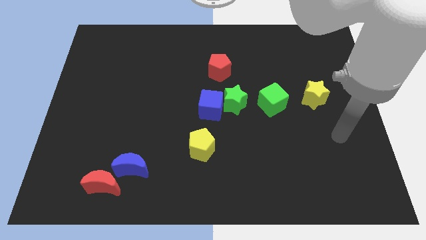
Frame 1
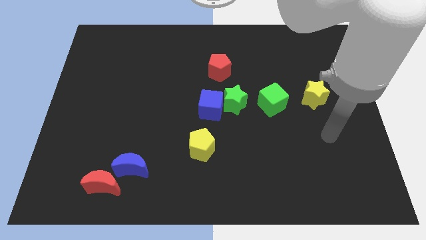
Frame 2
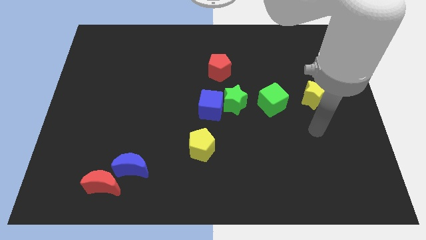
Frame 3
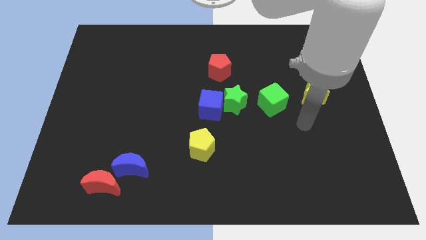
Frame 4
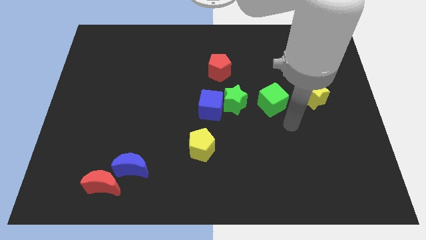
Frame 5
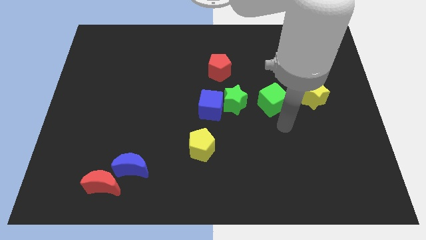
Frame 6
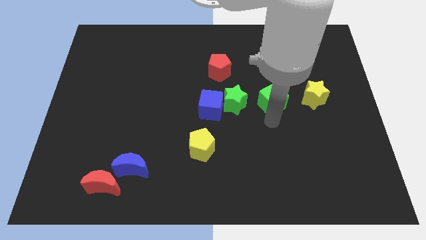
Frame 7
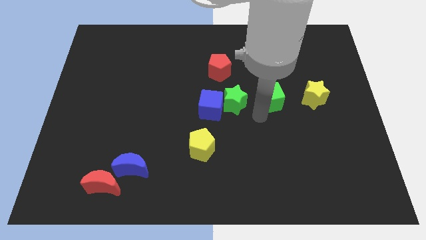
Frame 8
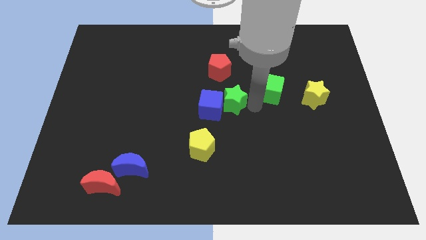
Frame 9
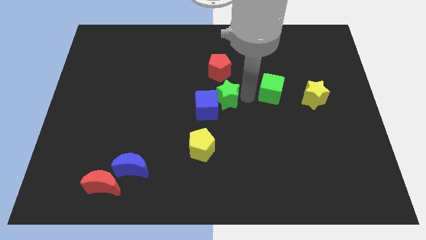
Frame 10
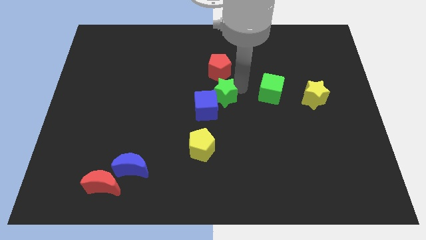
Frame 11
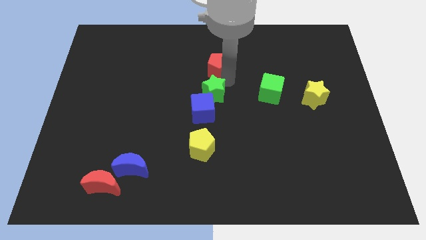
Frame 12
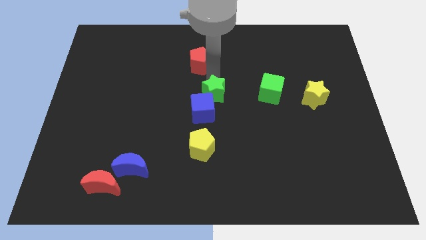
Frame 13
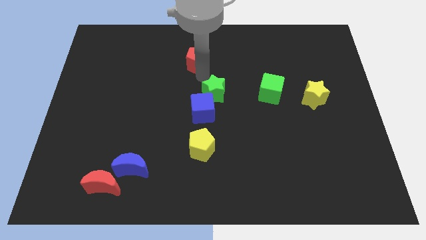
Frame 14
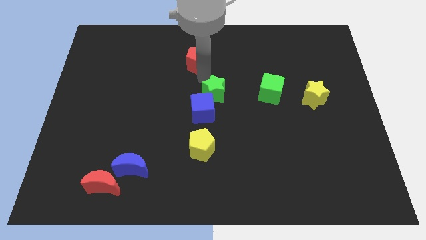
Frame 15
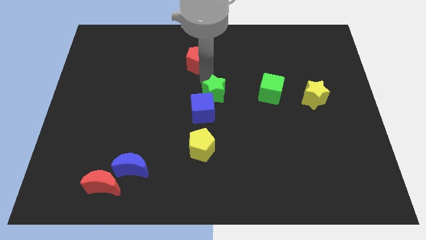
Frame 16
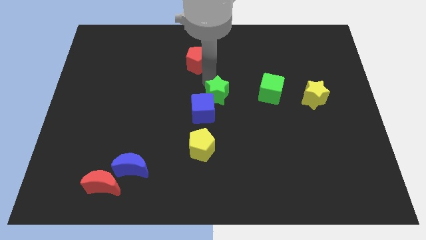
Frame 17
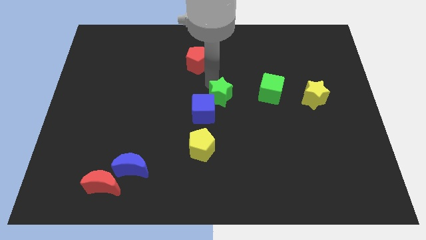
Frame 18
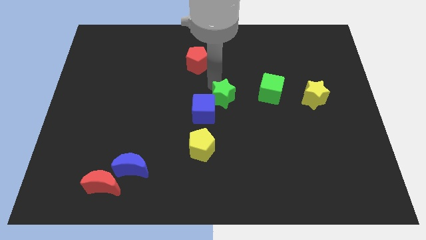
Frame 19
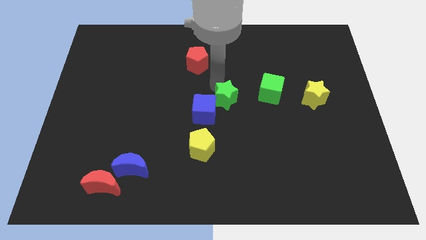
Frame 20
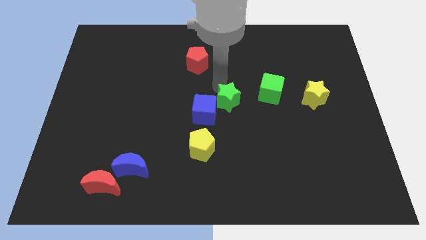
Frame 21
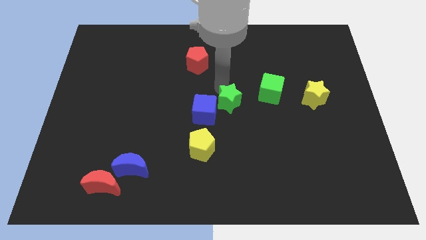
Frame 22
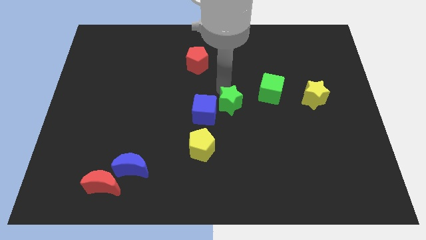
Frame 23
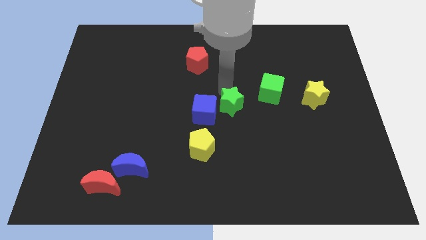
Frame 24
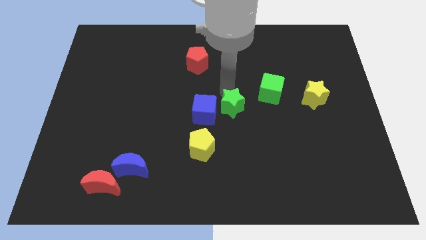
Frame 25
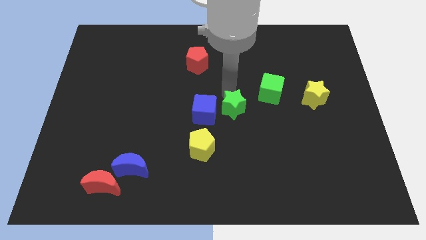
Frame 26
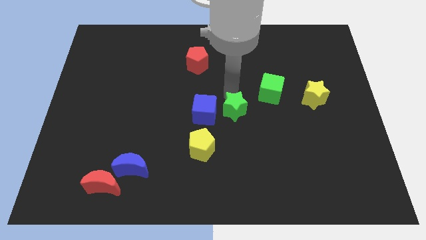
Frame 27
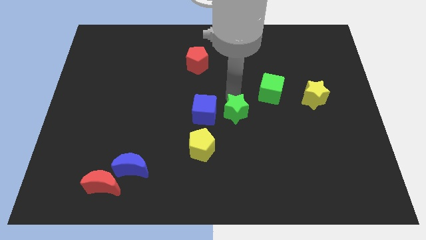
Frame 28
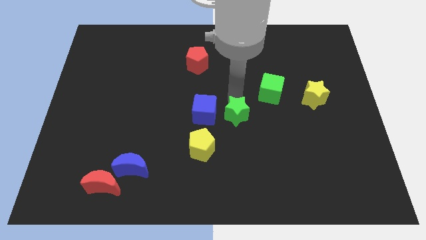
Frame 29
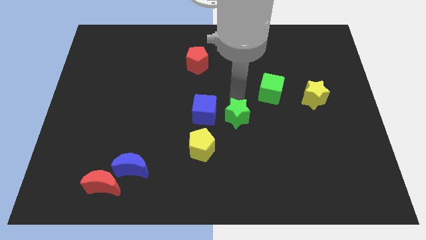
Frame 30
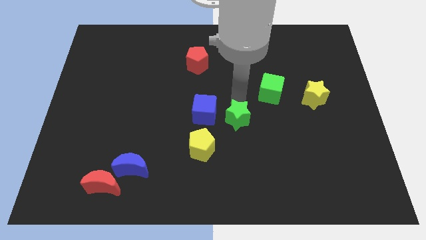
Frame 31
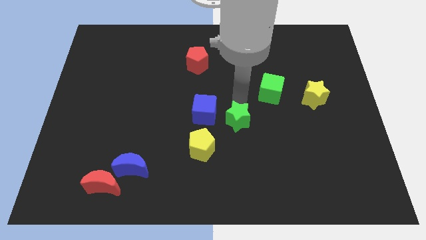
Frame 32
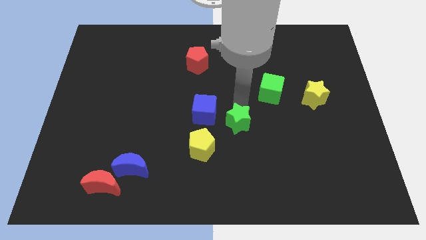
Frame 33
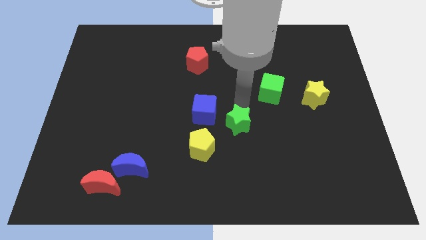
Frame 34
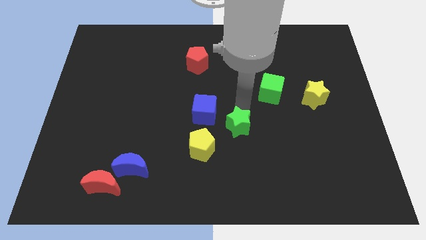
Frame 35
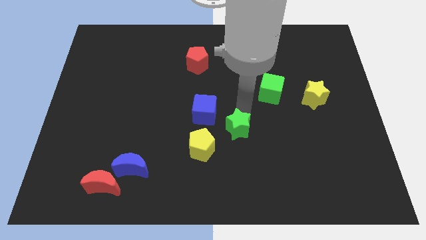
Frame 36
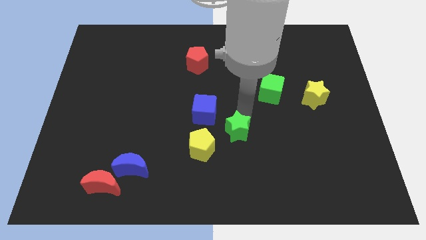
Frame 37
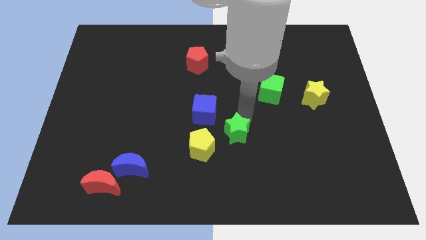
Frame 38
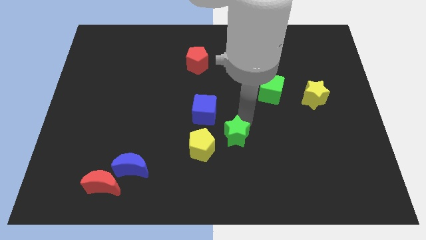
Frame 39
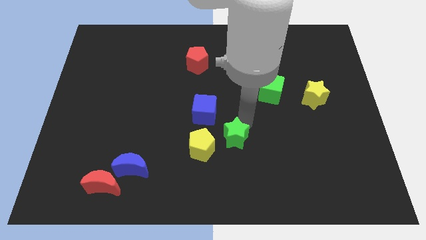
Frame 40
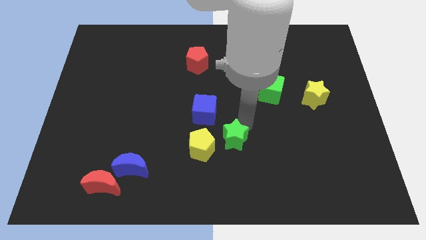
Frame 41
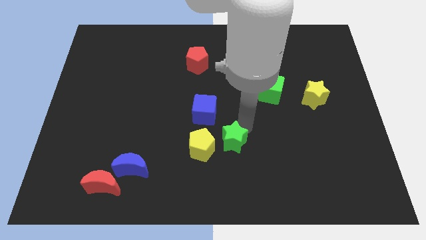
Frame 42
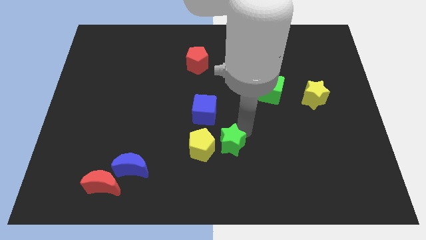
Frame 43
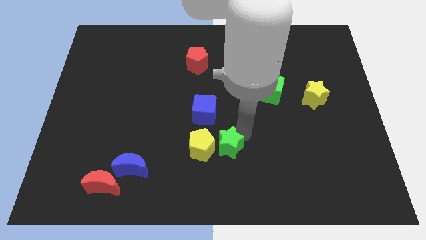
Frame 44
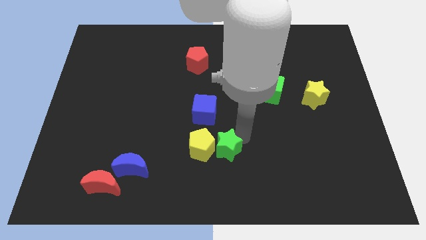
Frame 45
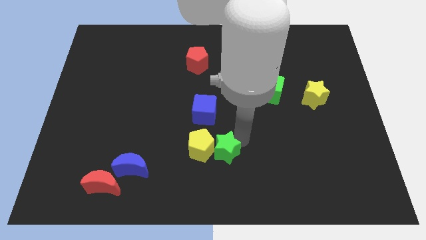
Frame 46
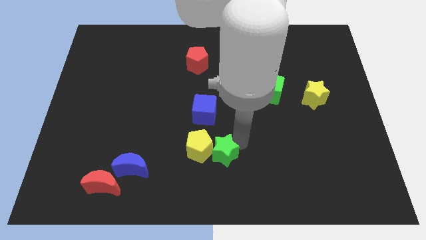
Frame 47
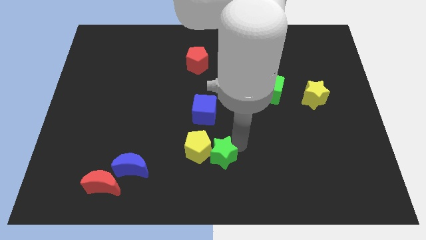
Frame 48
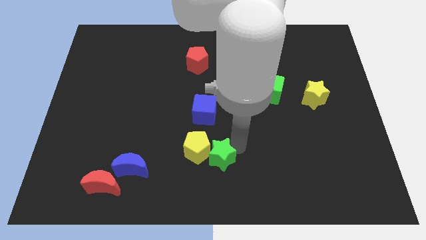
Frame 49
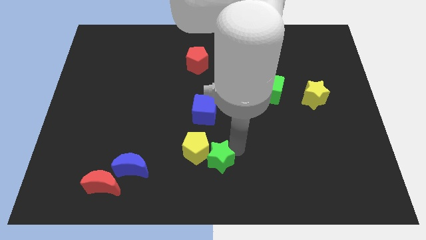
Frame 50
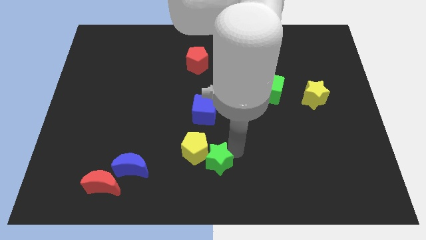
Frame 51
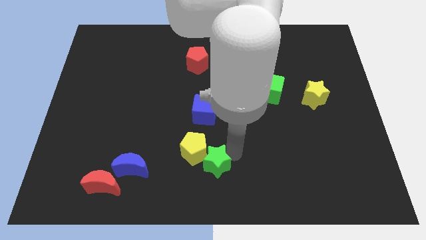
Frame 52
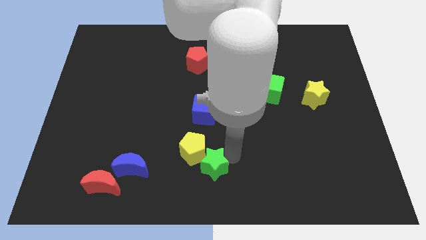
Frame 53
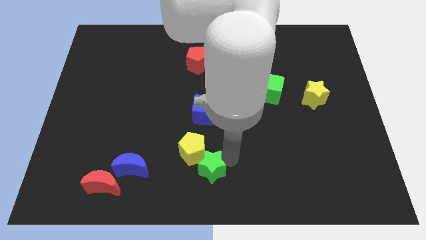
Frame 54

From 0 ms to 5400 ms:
put the green star to the right side of the blue moon

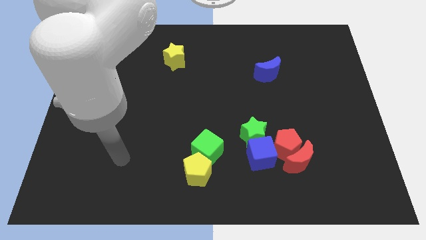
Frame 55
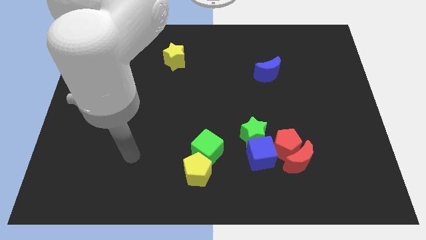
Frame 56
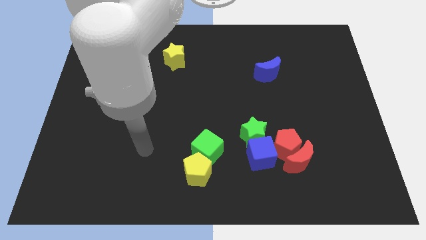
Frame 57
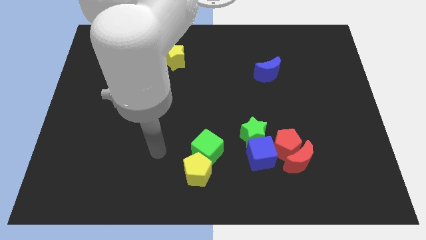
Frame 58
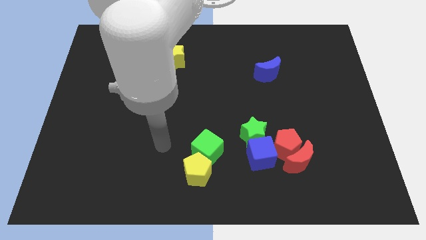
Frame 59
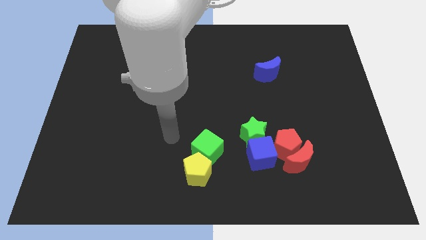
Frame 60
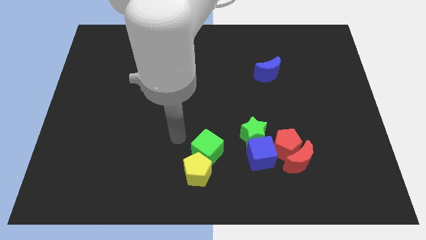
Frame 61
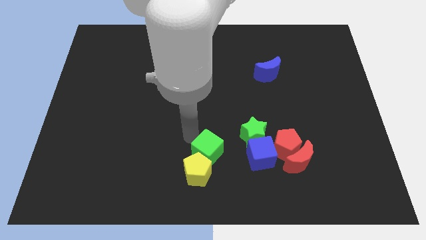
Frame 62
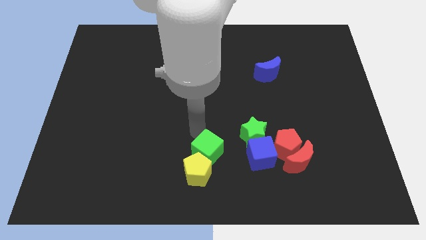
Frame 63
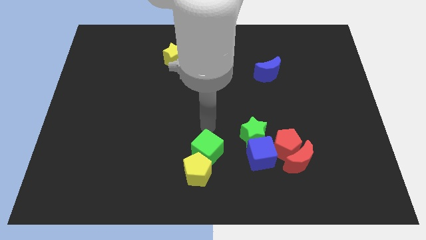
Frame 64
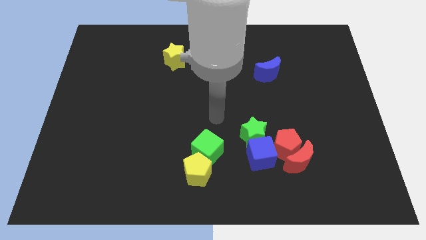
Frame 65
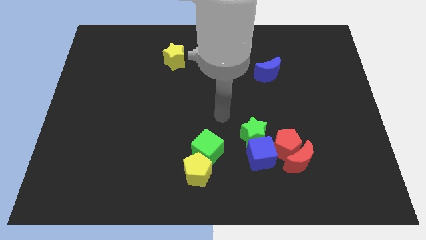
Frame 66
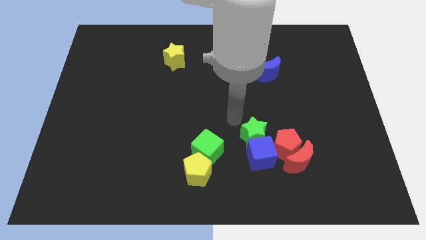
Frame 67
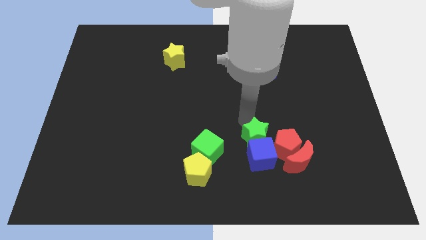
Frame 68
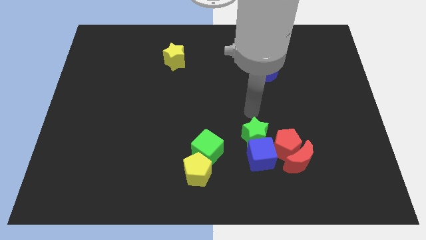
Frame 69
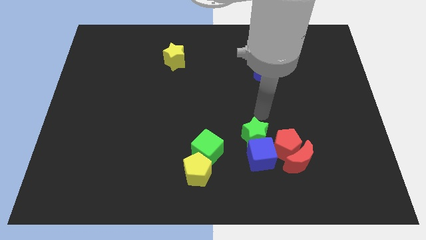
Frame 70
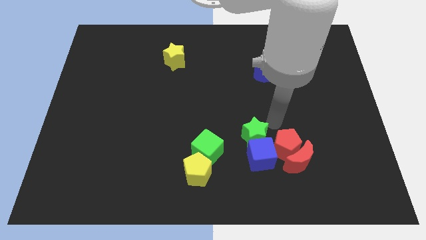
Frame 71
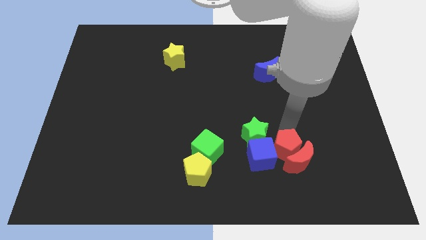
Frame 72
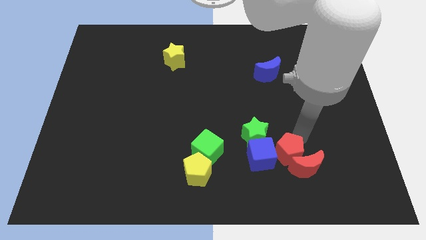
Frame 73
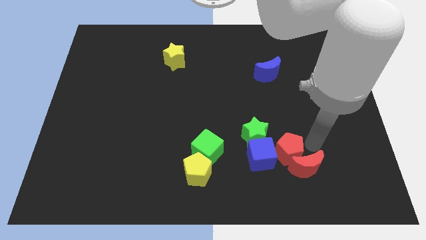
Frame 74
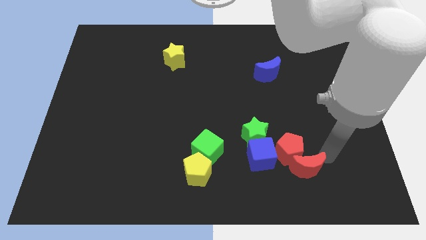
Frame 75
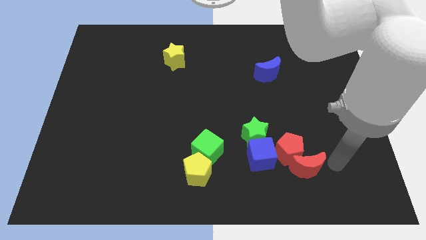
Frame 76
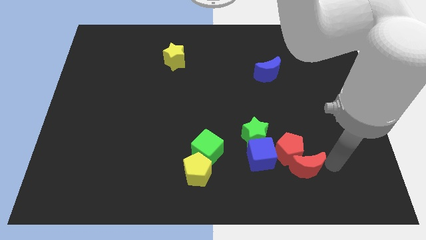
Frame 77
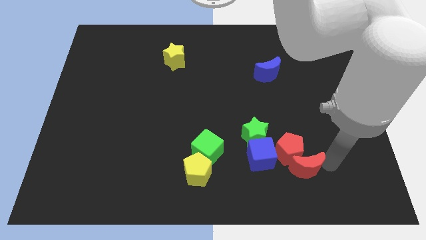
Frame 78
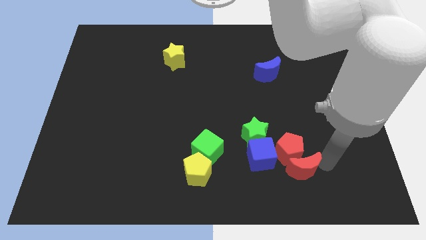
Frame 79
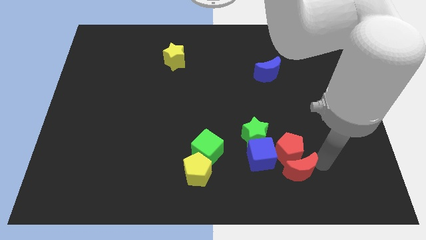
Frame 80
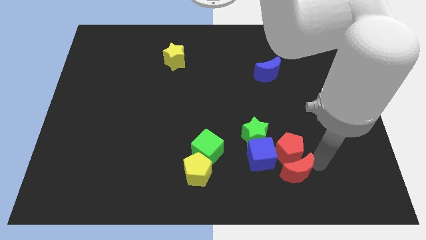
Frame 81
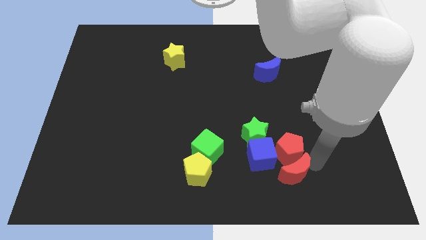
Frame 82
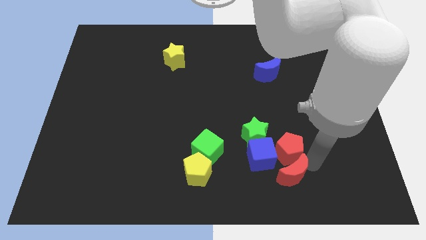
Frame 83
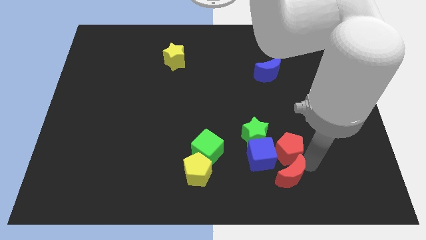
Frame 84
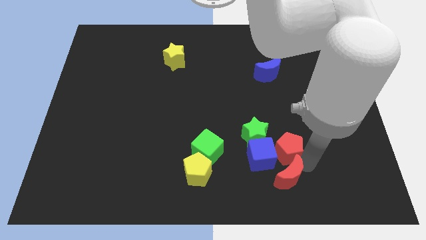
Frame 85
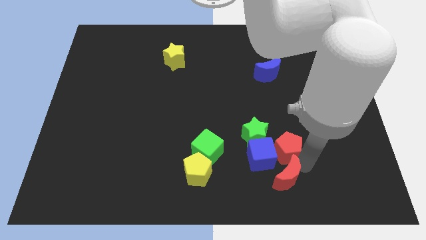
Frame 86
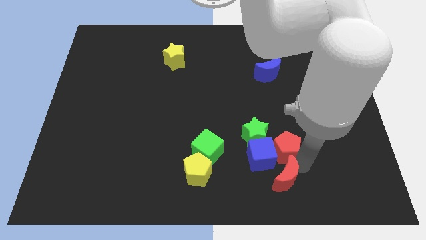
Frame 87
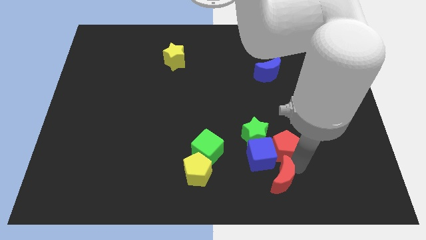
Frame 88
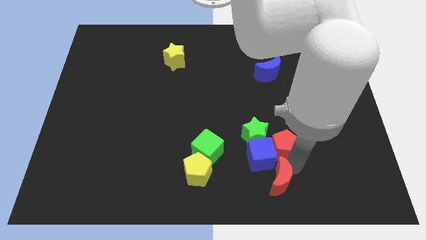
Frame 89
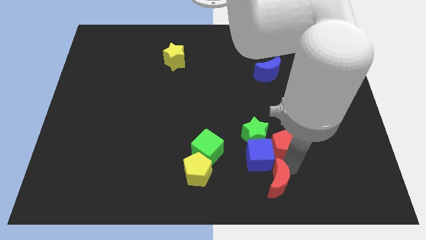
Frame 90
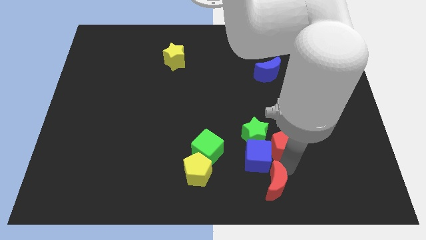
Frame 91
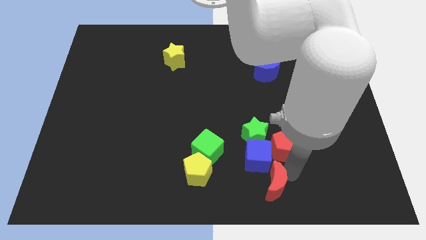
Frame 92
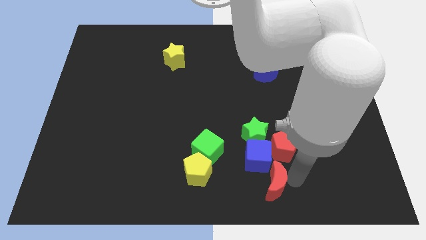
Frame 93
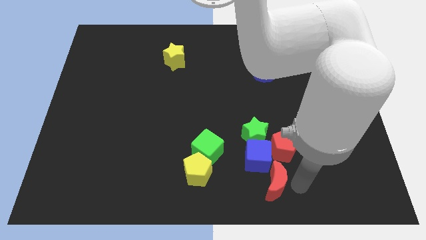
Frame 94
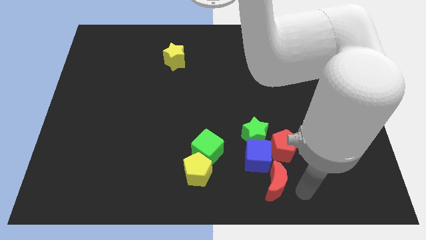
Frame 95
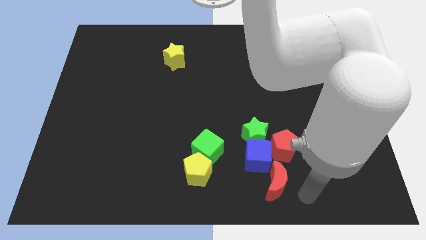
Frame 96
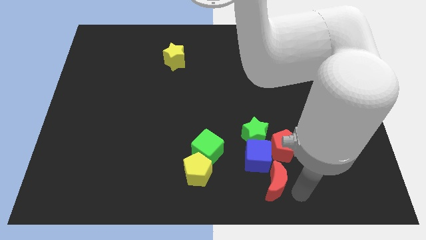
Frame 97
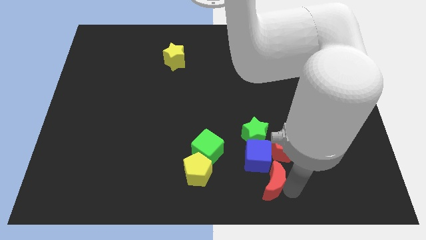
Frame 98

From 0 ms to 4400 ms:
slide the red moon to the right of the yellow pentagon
